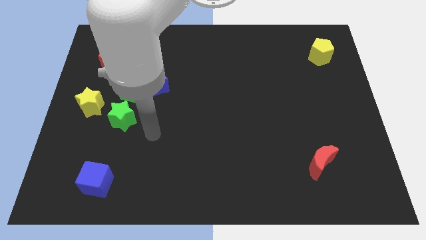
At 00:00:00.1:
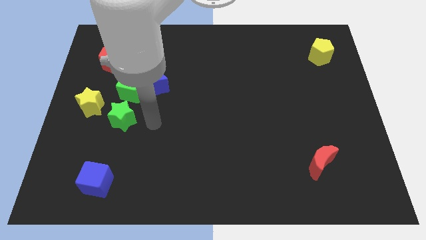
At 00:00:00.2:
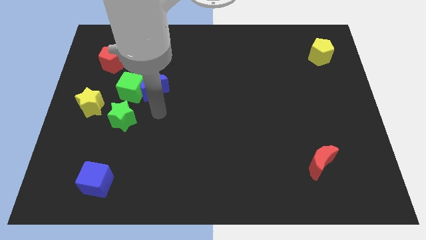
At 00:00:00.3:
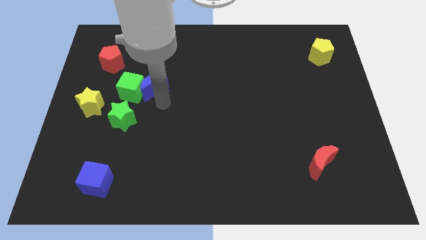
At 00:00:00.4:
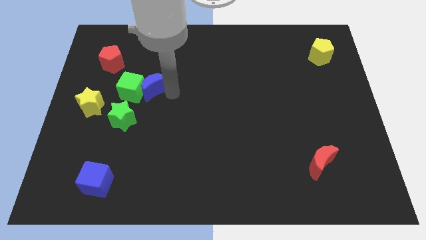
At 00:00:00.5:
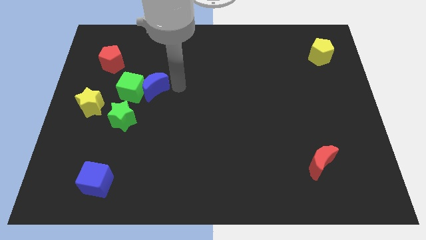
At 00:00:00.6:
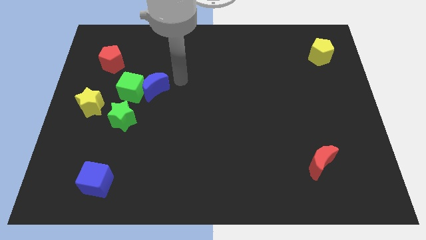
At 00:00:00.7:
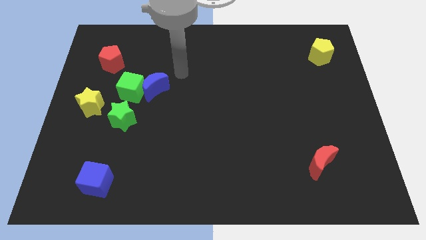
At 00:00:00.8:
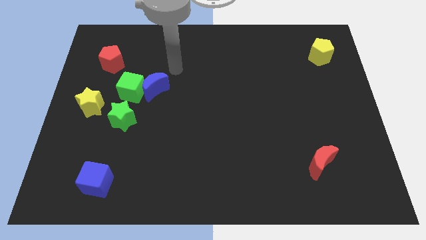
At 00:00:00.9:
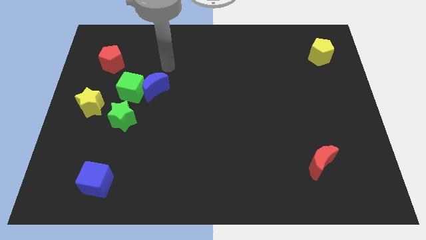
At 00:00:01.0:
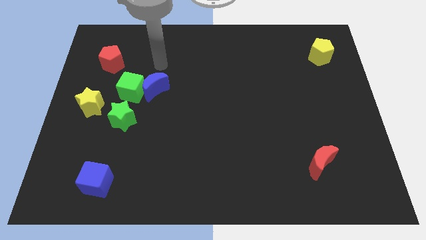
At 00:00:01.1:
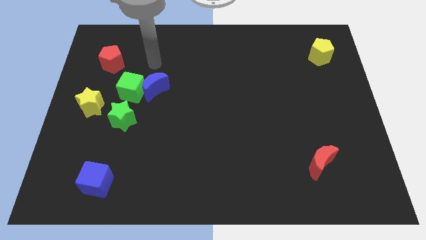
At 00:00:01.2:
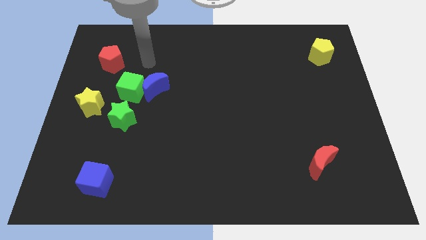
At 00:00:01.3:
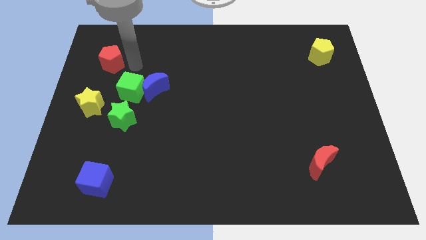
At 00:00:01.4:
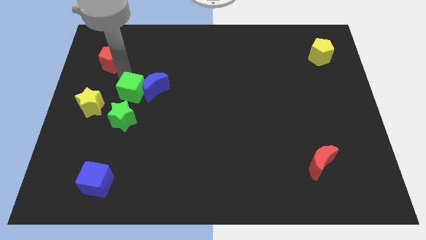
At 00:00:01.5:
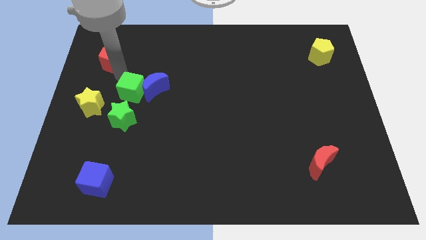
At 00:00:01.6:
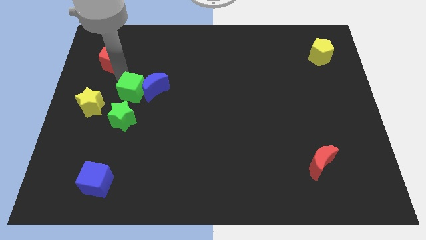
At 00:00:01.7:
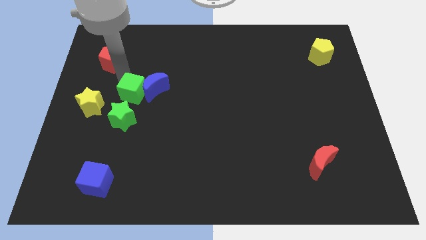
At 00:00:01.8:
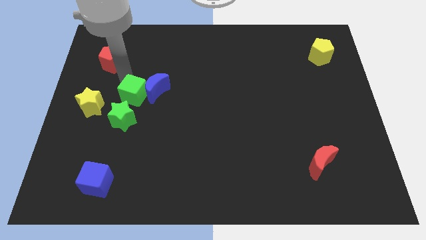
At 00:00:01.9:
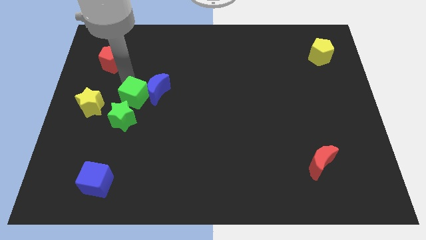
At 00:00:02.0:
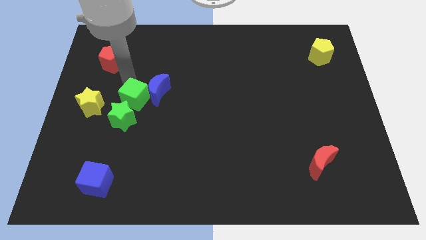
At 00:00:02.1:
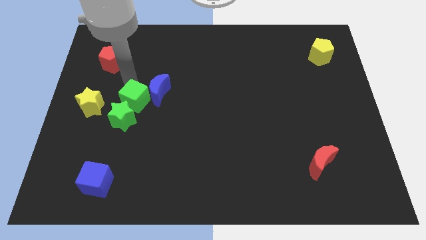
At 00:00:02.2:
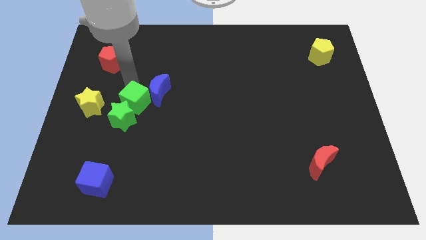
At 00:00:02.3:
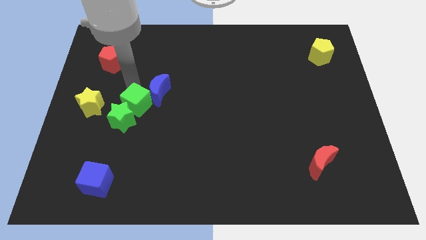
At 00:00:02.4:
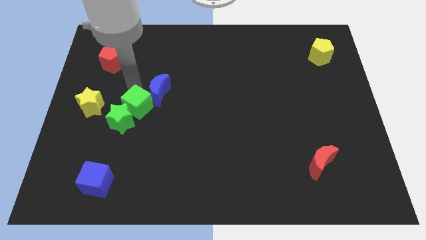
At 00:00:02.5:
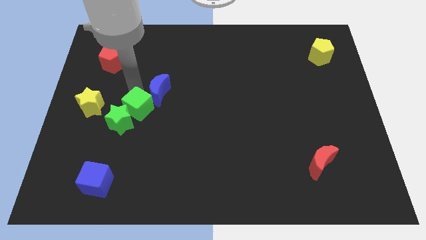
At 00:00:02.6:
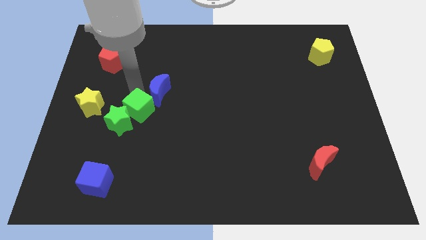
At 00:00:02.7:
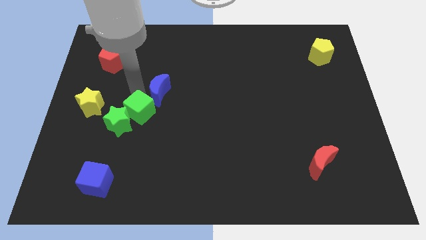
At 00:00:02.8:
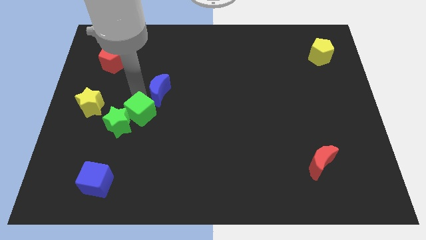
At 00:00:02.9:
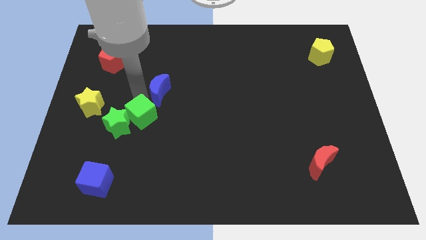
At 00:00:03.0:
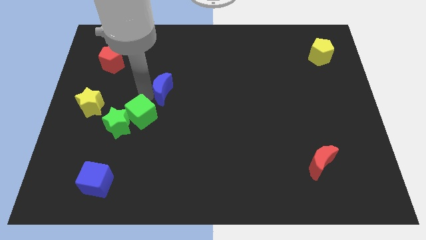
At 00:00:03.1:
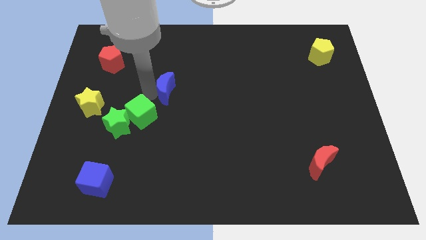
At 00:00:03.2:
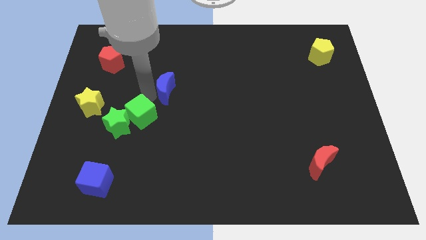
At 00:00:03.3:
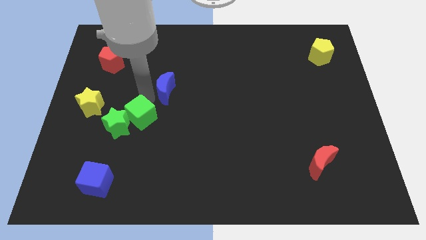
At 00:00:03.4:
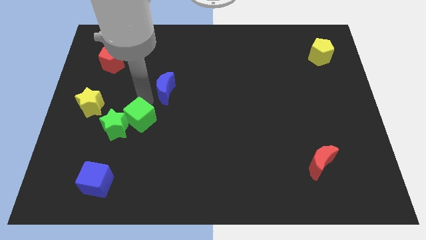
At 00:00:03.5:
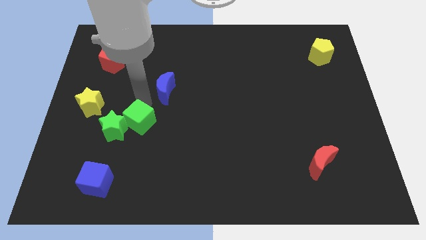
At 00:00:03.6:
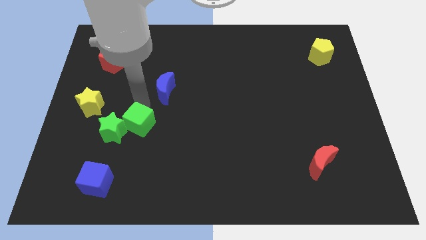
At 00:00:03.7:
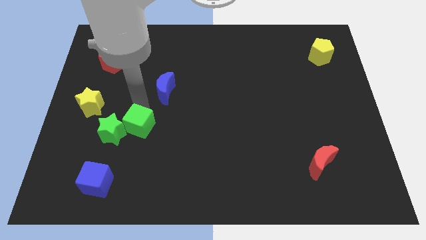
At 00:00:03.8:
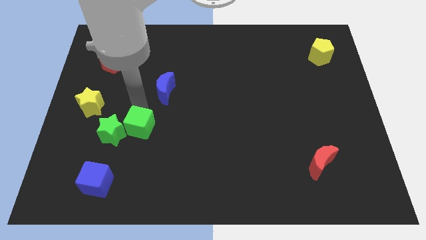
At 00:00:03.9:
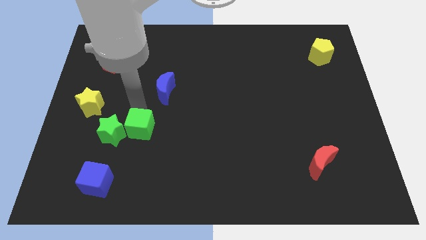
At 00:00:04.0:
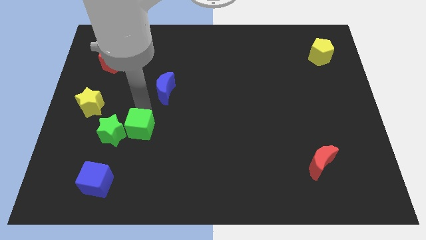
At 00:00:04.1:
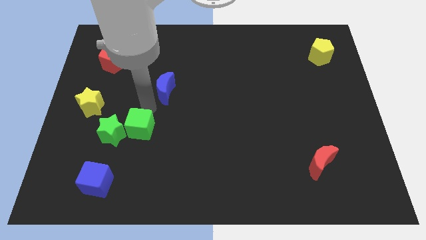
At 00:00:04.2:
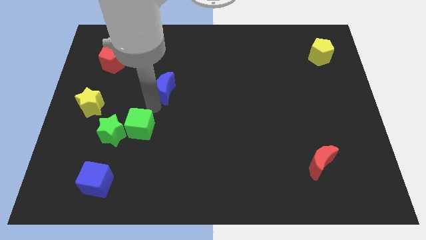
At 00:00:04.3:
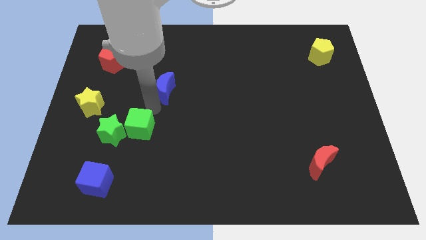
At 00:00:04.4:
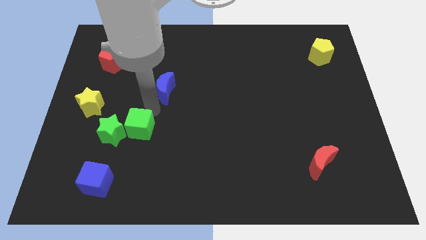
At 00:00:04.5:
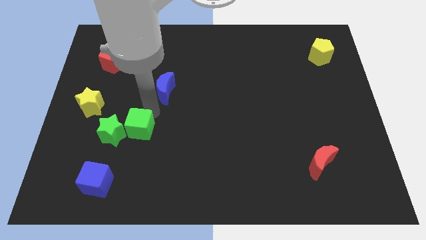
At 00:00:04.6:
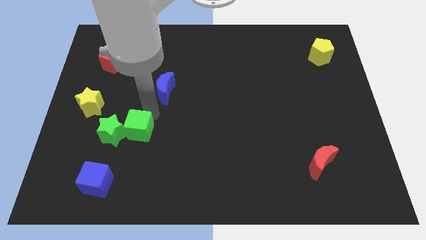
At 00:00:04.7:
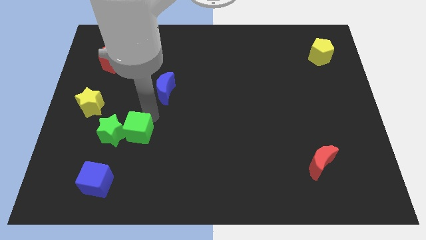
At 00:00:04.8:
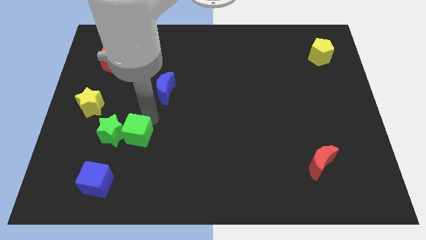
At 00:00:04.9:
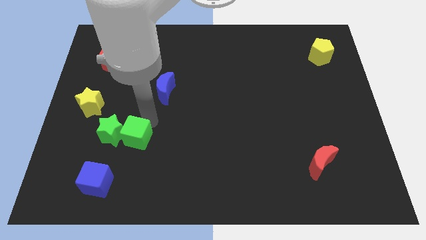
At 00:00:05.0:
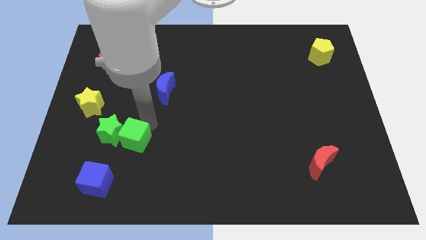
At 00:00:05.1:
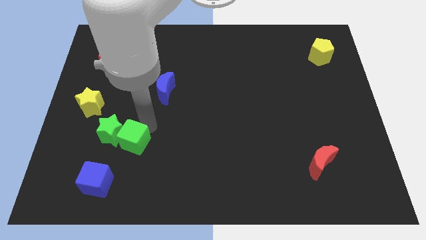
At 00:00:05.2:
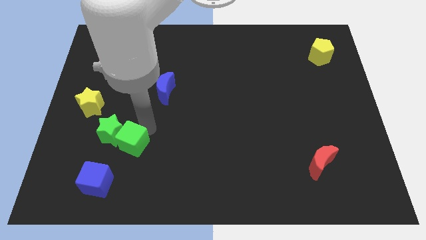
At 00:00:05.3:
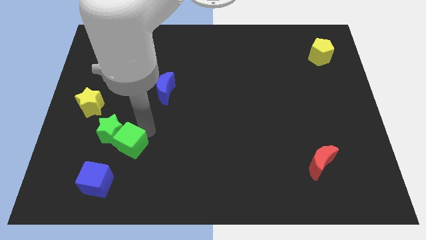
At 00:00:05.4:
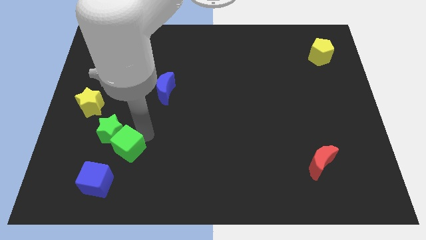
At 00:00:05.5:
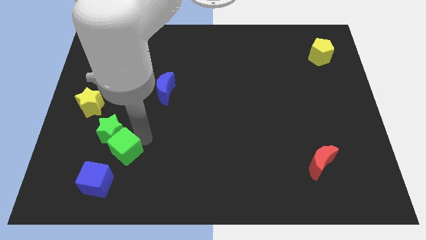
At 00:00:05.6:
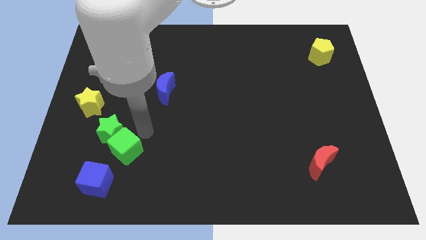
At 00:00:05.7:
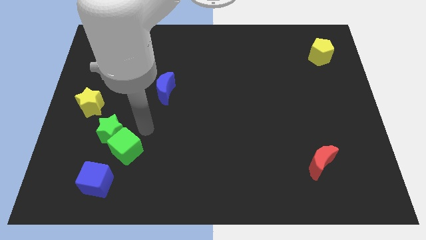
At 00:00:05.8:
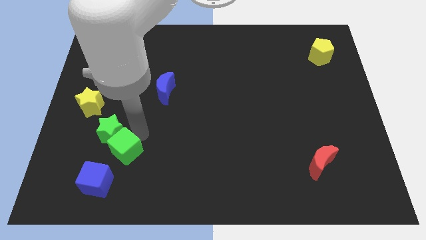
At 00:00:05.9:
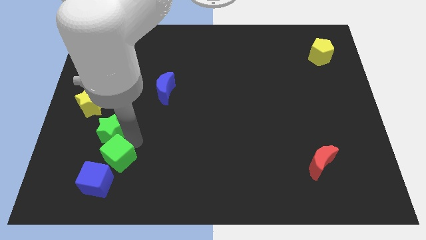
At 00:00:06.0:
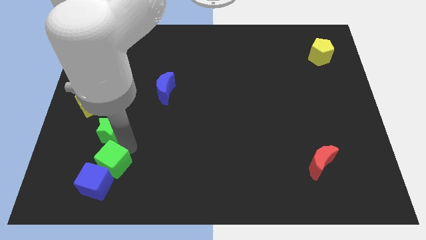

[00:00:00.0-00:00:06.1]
slide the green cube next to the blue cube

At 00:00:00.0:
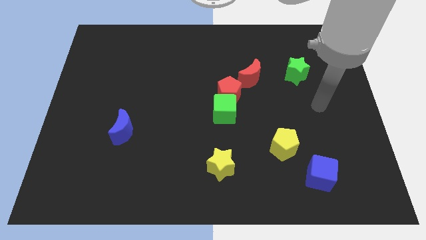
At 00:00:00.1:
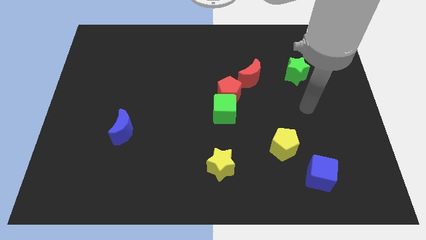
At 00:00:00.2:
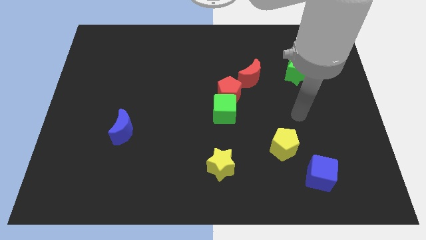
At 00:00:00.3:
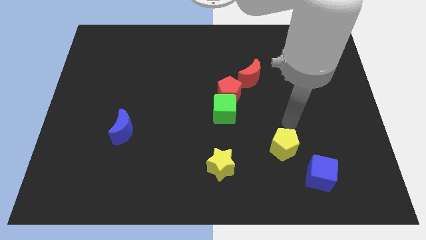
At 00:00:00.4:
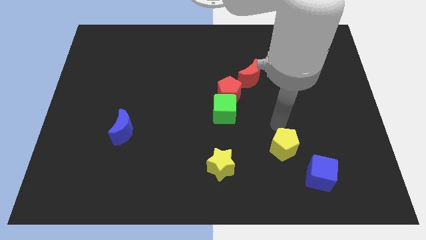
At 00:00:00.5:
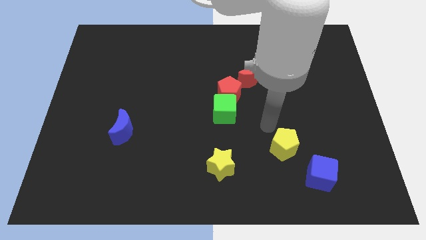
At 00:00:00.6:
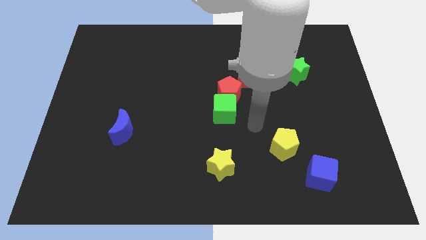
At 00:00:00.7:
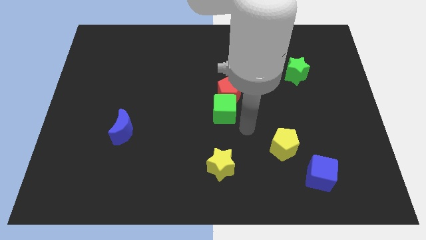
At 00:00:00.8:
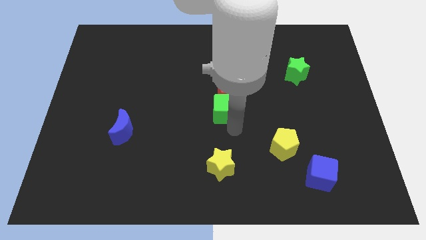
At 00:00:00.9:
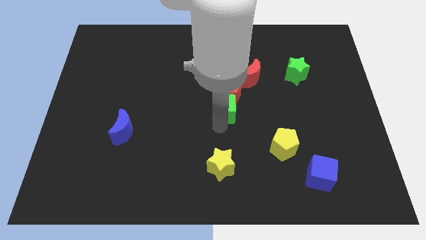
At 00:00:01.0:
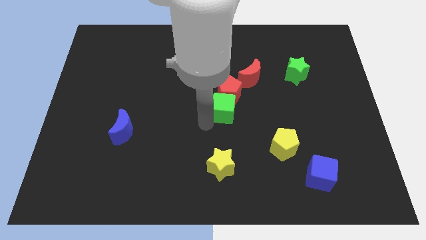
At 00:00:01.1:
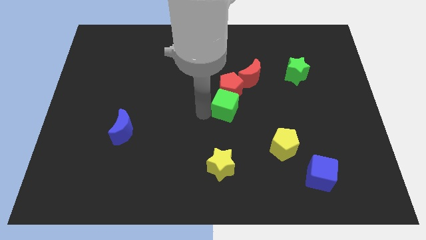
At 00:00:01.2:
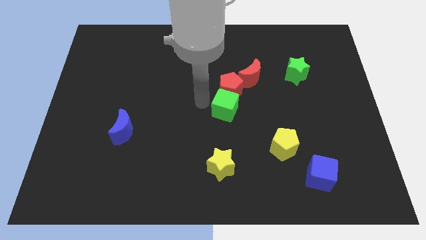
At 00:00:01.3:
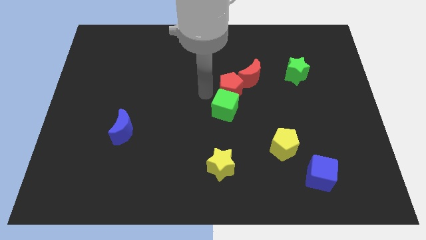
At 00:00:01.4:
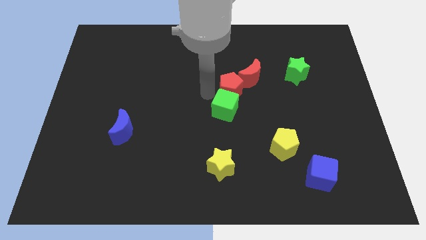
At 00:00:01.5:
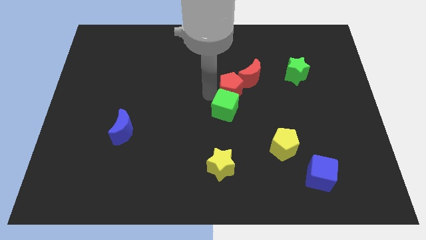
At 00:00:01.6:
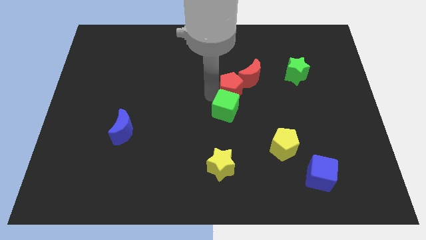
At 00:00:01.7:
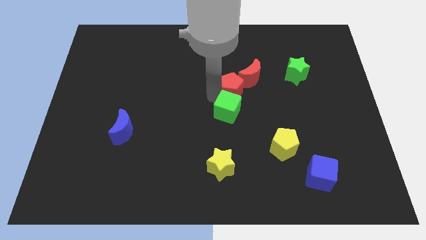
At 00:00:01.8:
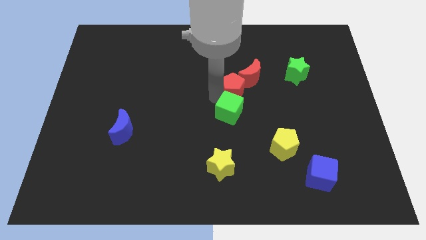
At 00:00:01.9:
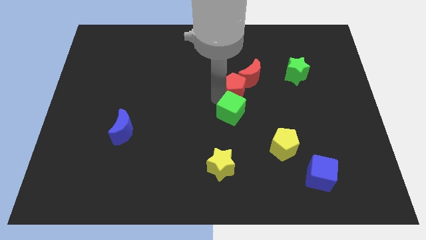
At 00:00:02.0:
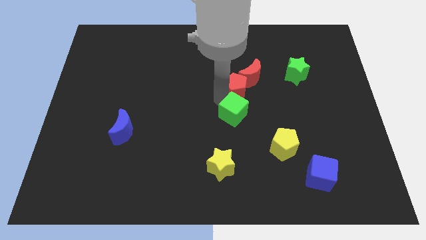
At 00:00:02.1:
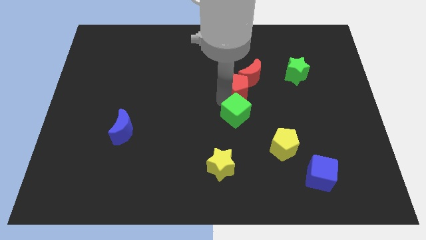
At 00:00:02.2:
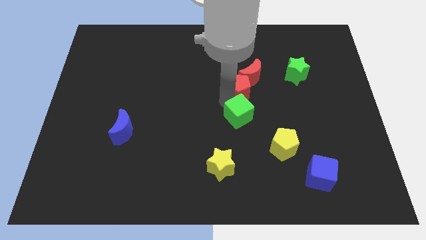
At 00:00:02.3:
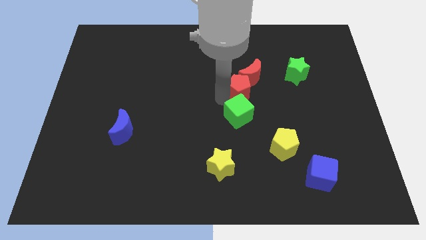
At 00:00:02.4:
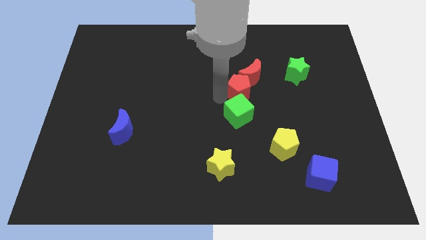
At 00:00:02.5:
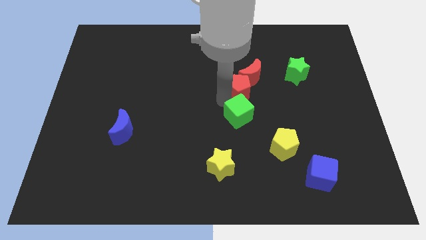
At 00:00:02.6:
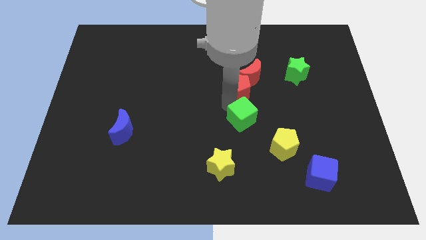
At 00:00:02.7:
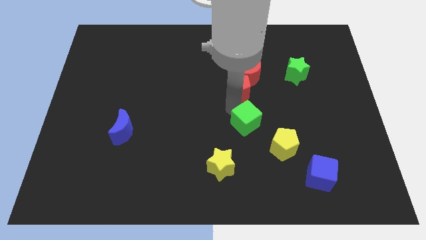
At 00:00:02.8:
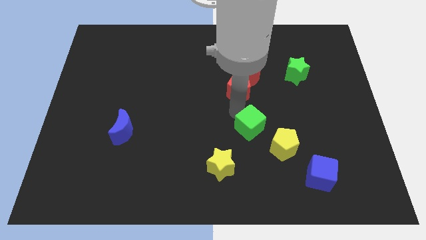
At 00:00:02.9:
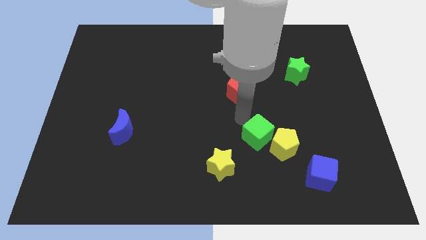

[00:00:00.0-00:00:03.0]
move the green cube close to the yellow pentagon
